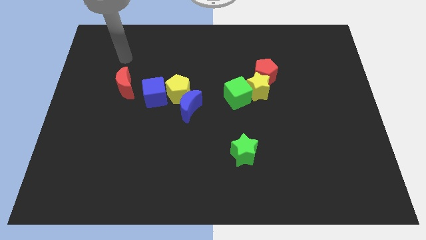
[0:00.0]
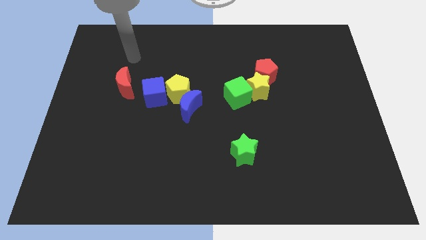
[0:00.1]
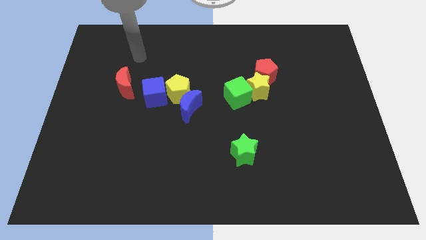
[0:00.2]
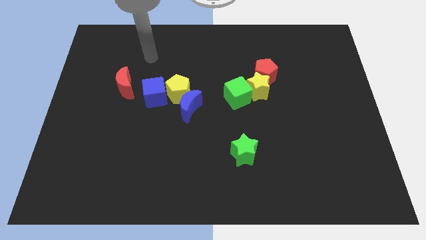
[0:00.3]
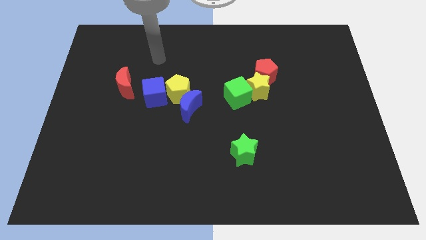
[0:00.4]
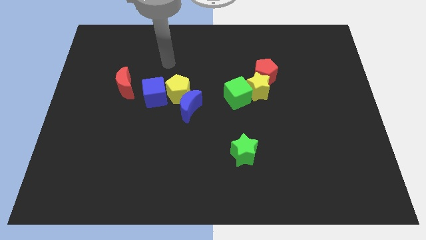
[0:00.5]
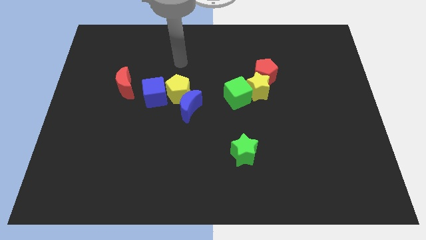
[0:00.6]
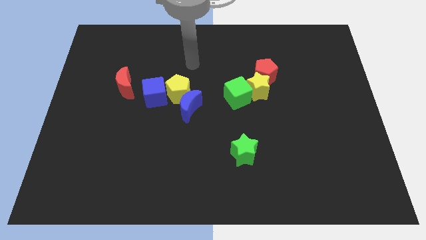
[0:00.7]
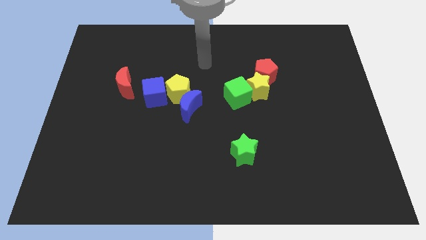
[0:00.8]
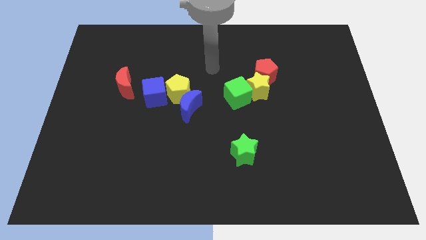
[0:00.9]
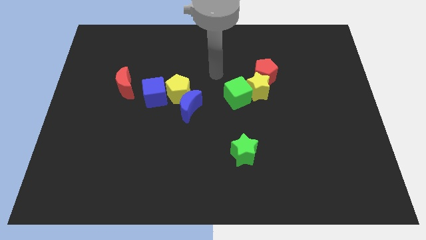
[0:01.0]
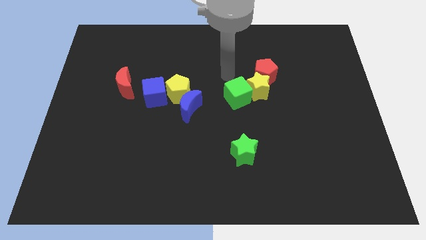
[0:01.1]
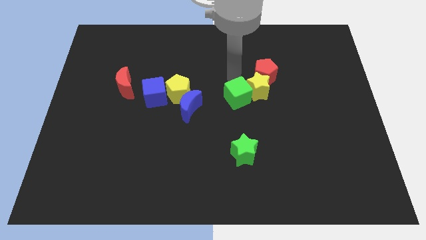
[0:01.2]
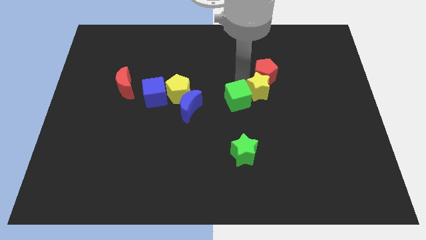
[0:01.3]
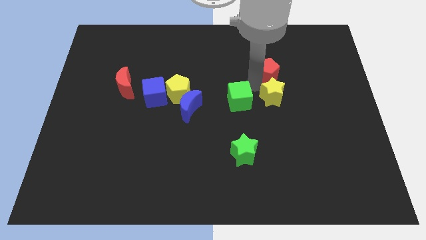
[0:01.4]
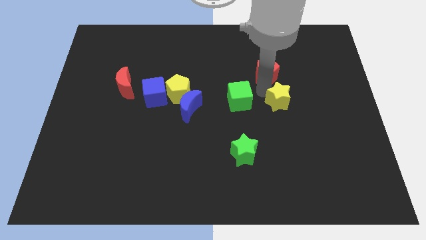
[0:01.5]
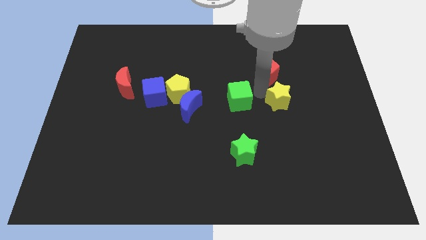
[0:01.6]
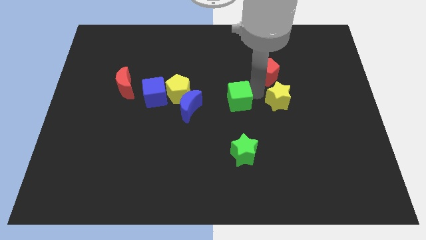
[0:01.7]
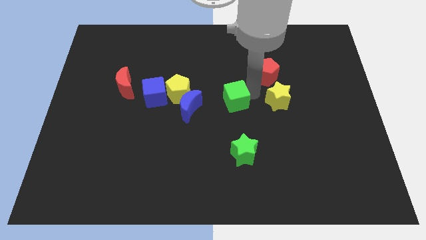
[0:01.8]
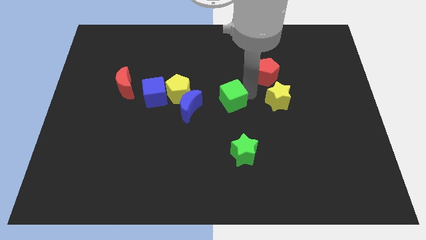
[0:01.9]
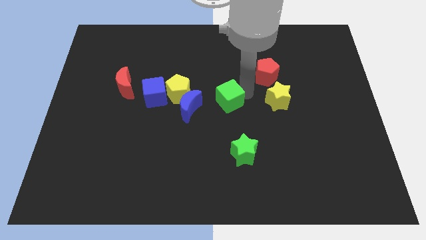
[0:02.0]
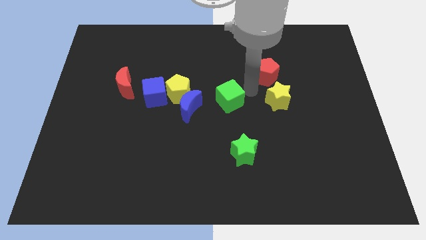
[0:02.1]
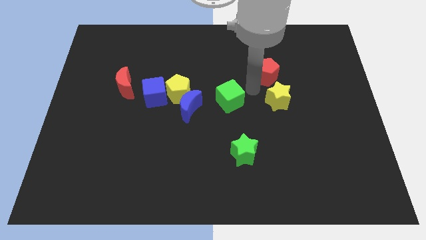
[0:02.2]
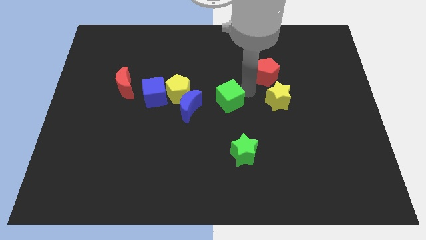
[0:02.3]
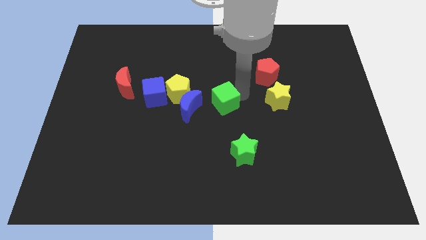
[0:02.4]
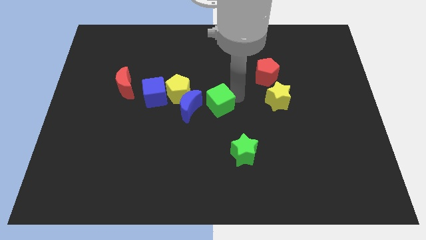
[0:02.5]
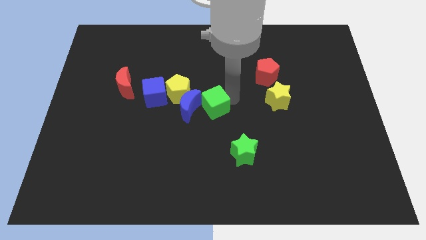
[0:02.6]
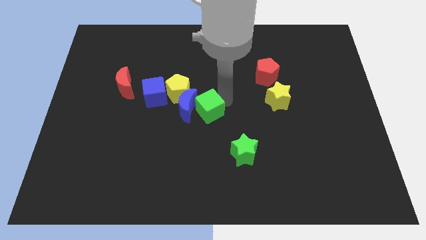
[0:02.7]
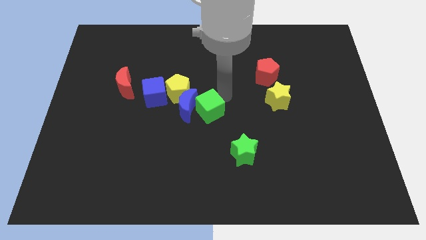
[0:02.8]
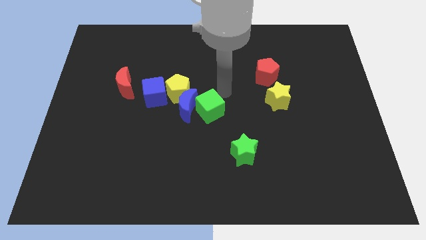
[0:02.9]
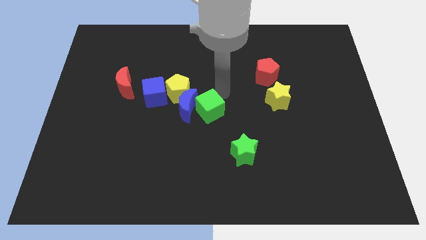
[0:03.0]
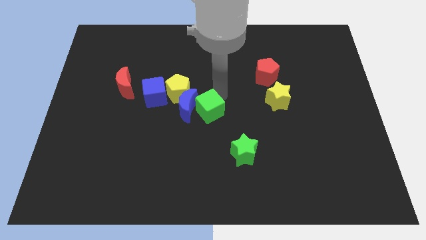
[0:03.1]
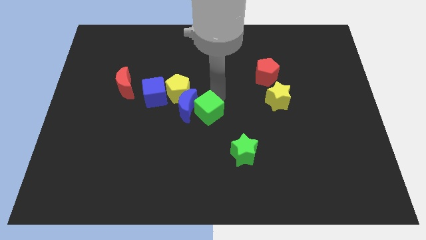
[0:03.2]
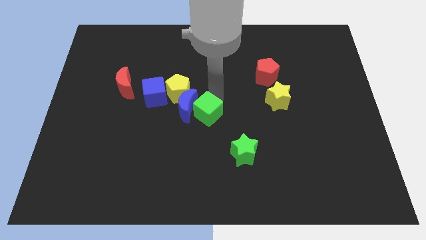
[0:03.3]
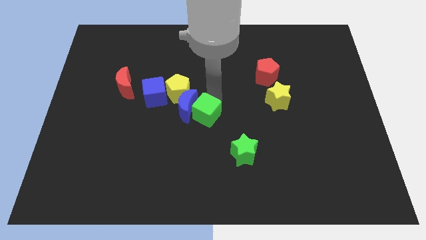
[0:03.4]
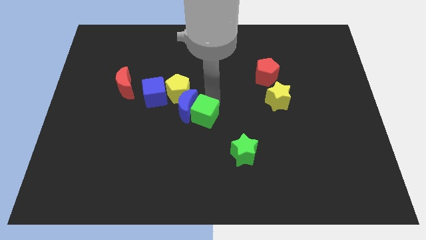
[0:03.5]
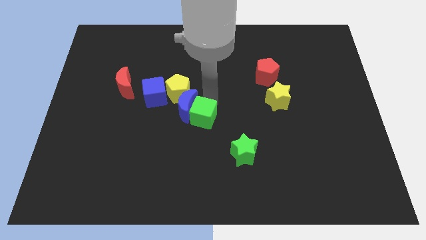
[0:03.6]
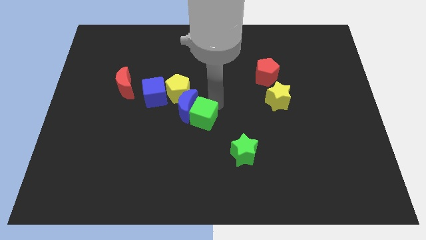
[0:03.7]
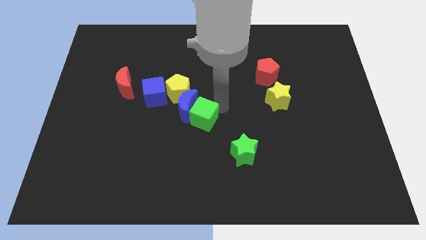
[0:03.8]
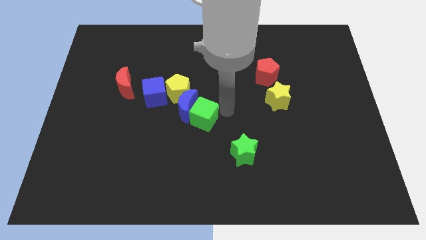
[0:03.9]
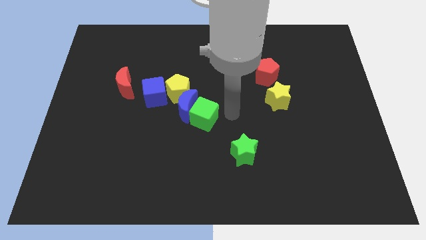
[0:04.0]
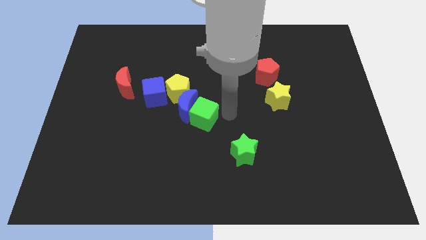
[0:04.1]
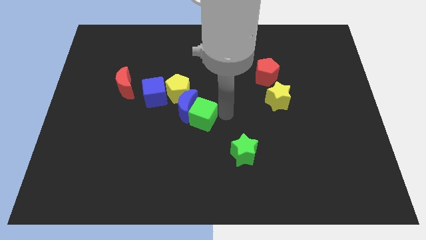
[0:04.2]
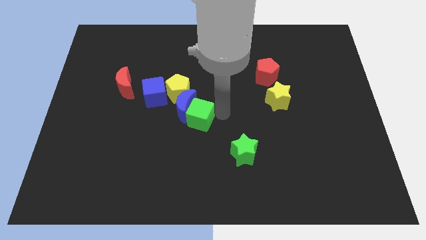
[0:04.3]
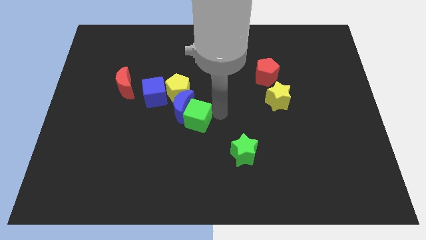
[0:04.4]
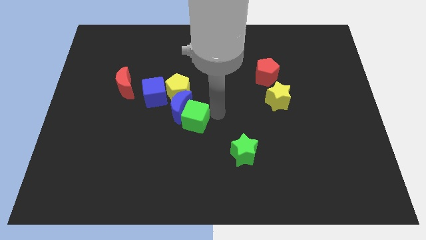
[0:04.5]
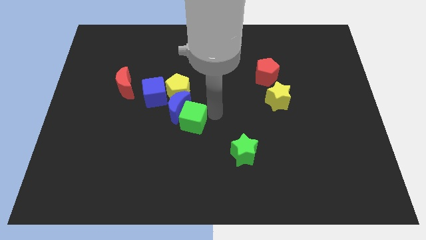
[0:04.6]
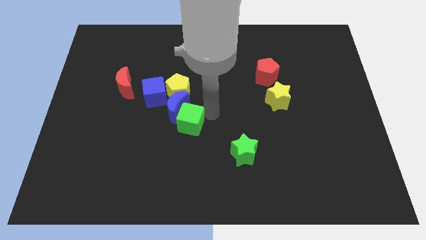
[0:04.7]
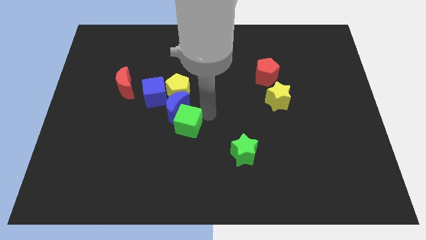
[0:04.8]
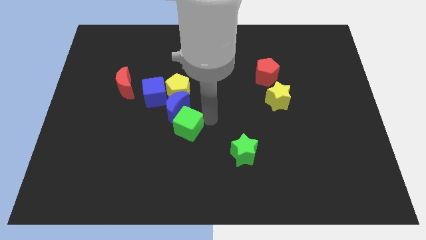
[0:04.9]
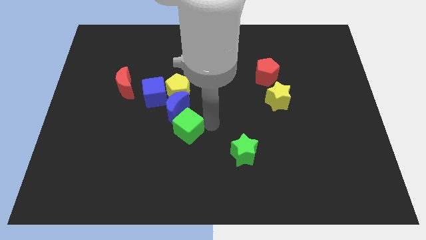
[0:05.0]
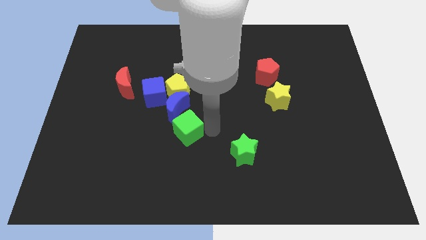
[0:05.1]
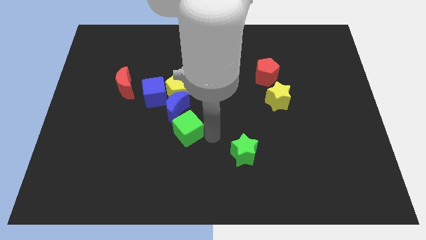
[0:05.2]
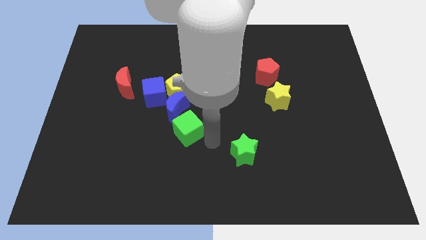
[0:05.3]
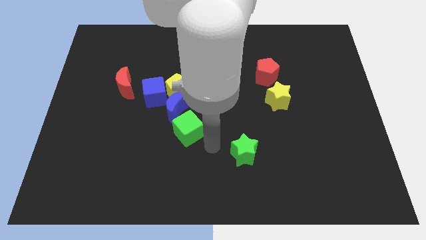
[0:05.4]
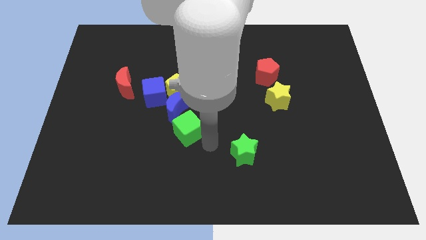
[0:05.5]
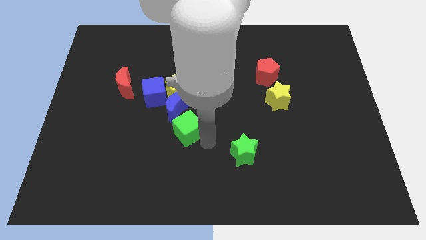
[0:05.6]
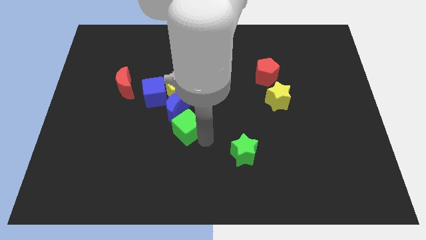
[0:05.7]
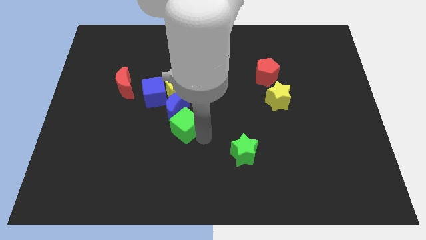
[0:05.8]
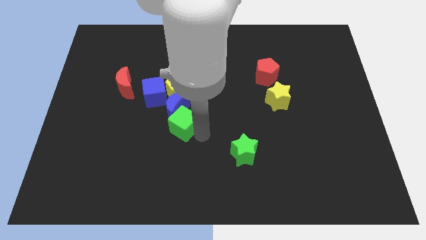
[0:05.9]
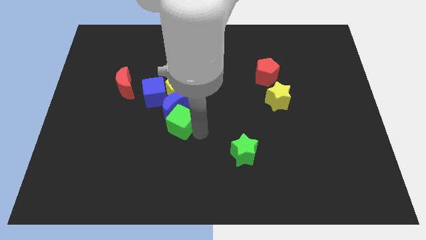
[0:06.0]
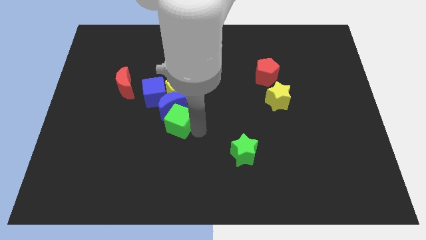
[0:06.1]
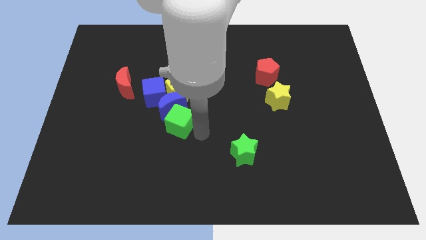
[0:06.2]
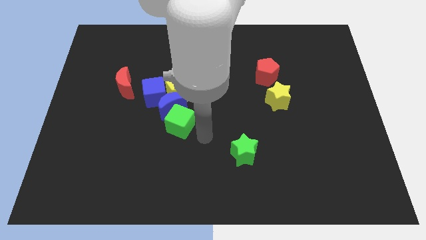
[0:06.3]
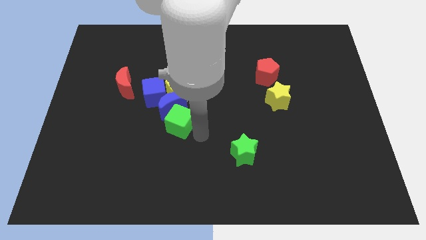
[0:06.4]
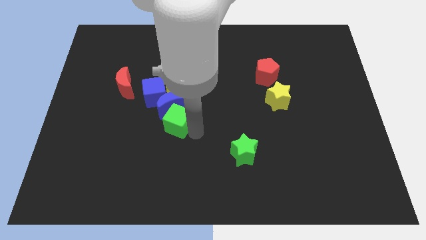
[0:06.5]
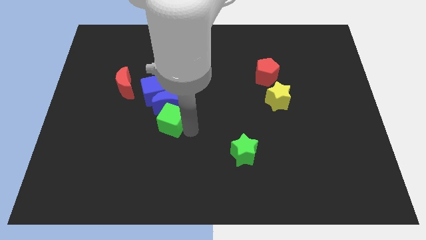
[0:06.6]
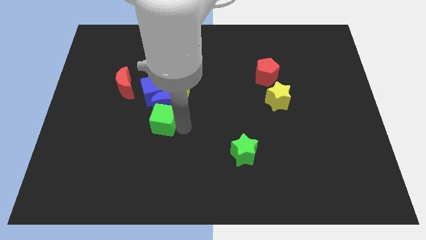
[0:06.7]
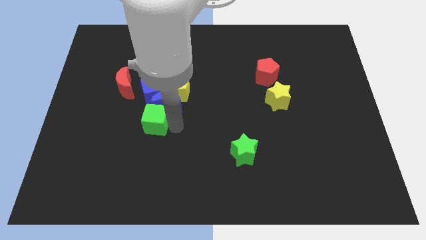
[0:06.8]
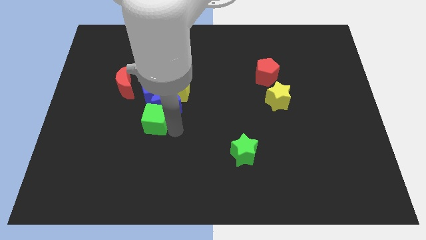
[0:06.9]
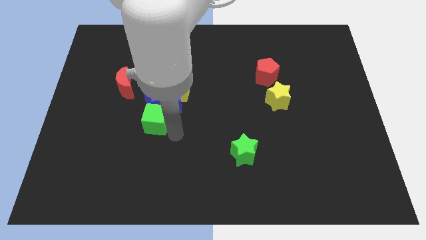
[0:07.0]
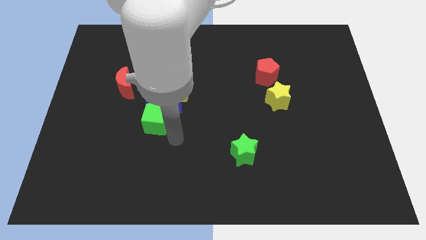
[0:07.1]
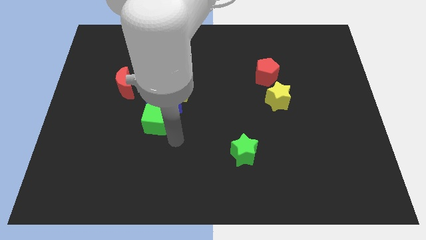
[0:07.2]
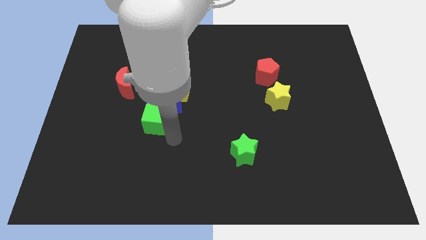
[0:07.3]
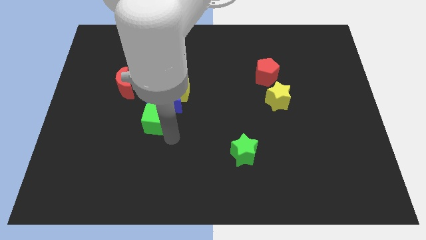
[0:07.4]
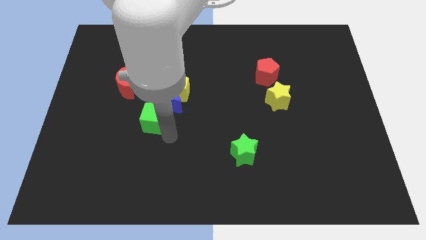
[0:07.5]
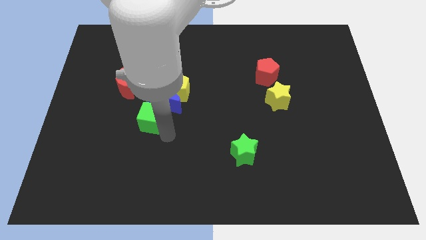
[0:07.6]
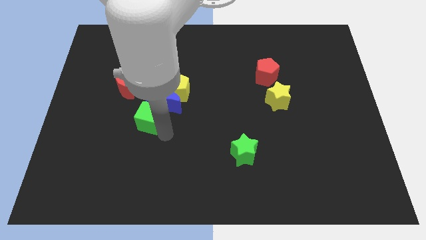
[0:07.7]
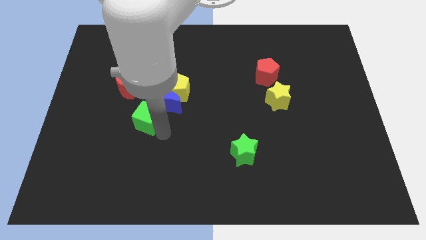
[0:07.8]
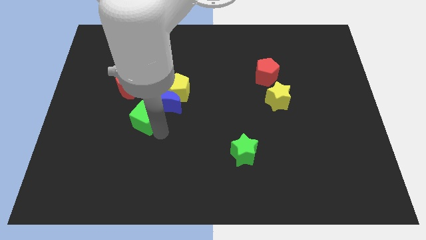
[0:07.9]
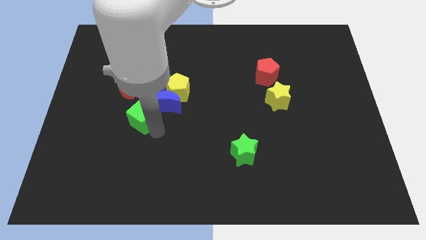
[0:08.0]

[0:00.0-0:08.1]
push the green cube to the left
